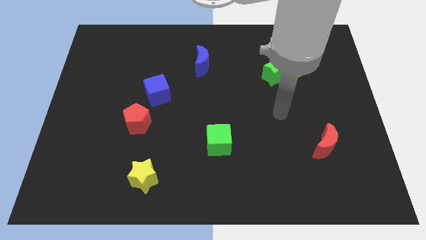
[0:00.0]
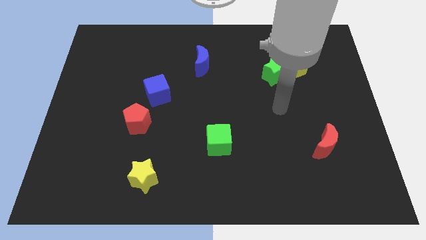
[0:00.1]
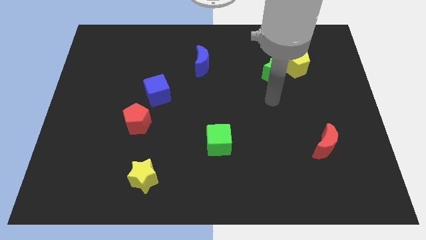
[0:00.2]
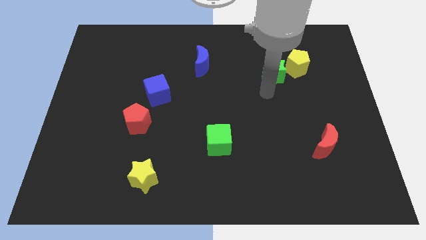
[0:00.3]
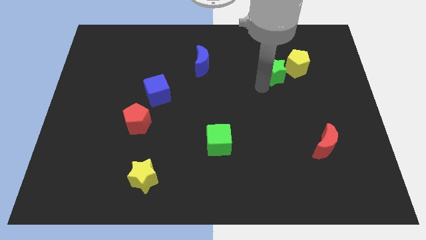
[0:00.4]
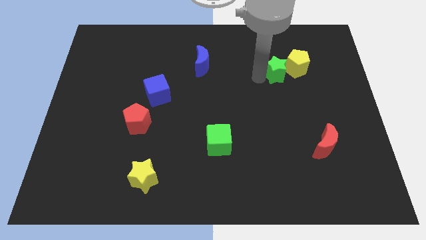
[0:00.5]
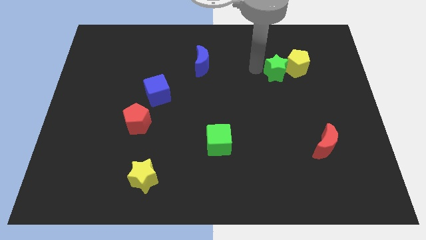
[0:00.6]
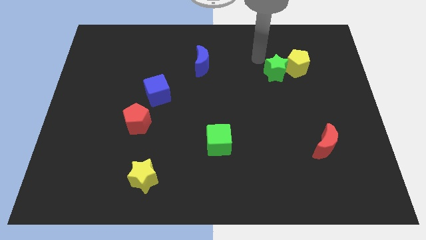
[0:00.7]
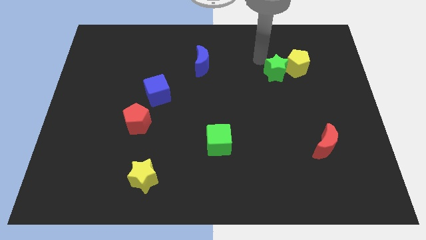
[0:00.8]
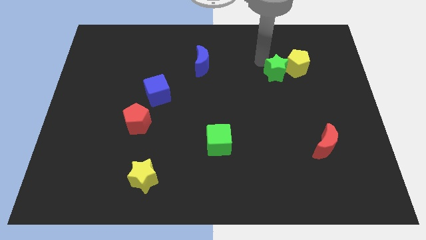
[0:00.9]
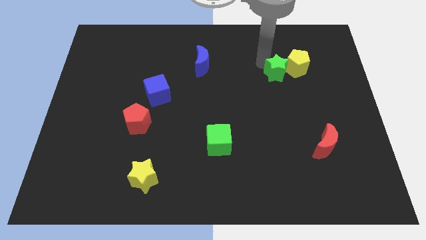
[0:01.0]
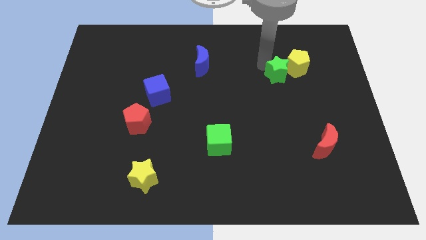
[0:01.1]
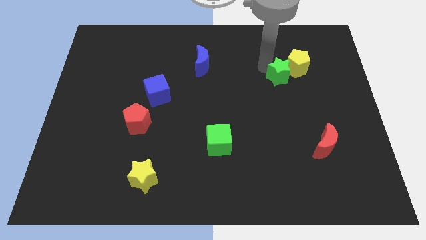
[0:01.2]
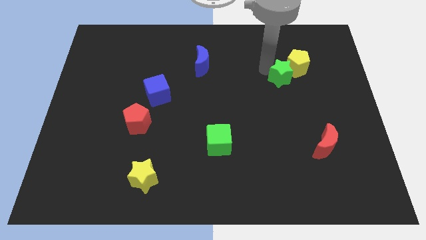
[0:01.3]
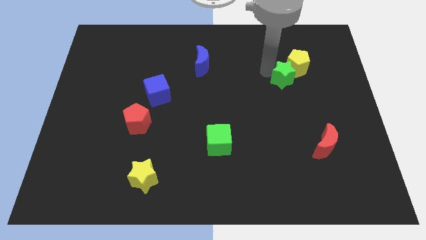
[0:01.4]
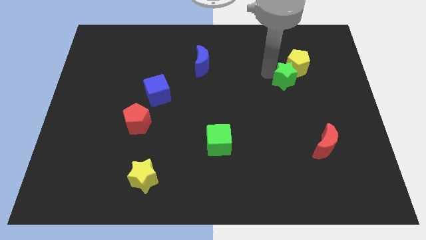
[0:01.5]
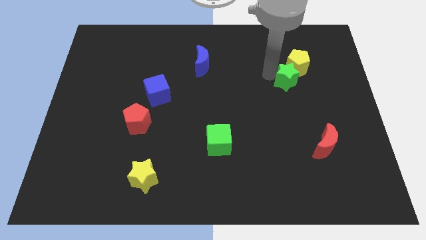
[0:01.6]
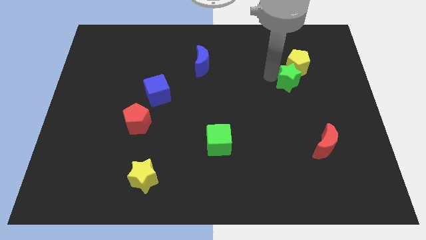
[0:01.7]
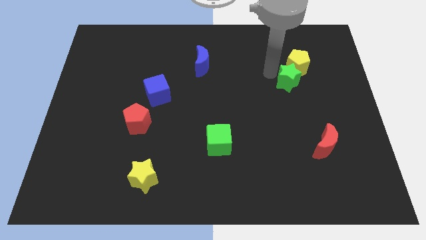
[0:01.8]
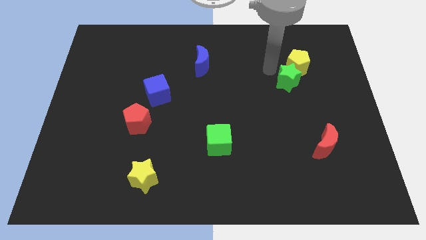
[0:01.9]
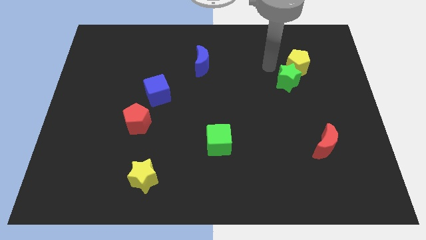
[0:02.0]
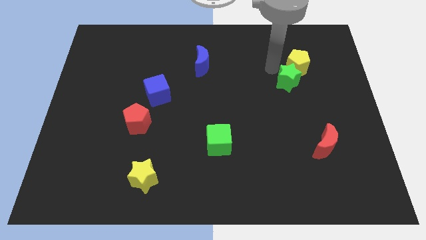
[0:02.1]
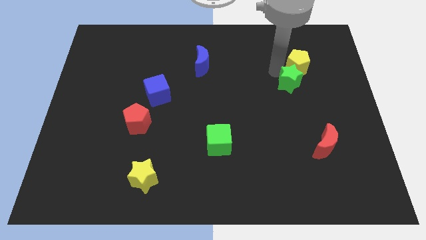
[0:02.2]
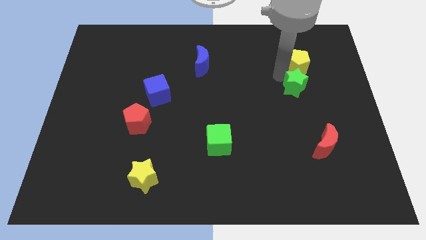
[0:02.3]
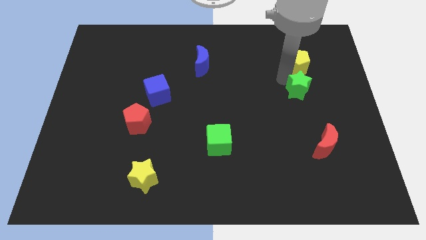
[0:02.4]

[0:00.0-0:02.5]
move the green star down and right diagonally a little bit

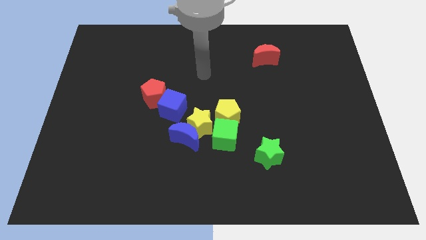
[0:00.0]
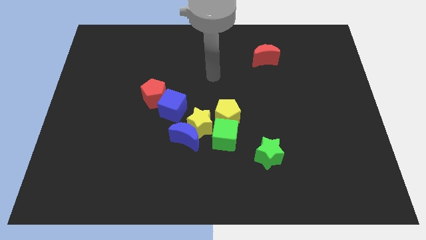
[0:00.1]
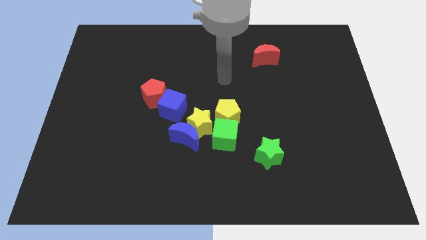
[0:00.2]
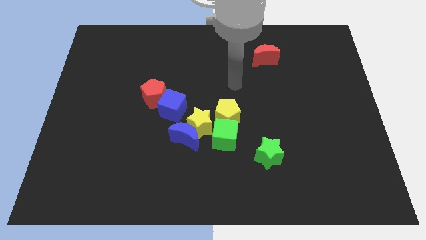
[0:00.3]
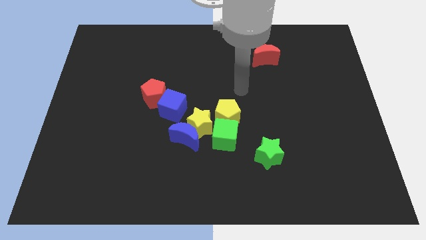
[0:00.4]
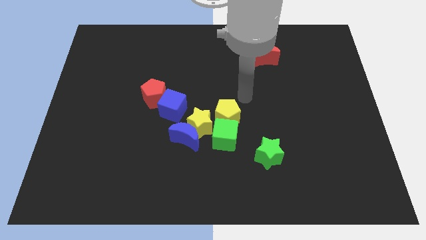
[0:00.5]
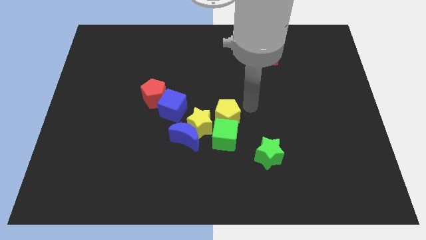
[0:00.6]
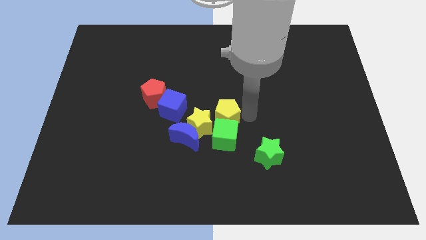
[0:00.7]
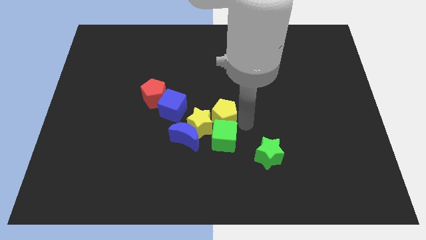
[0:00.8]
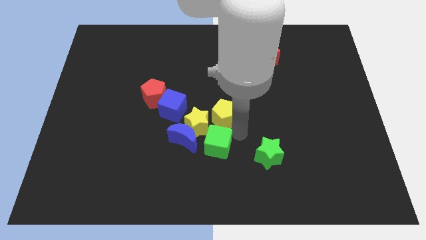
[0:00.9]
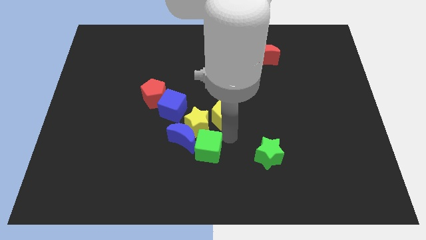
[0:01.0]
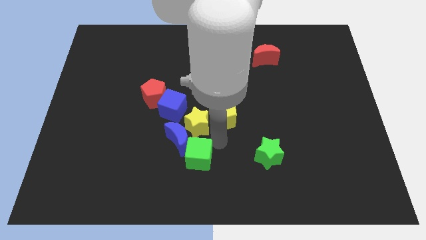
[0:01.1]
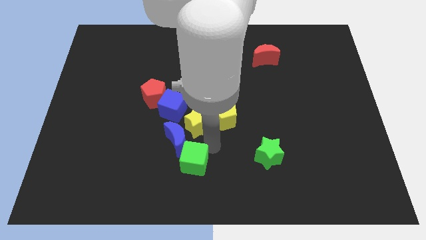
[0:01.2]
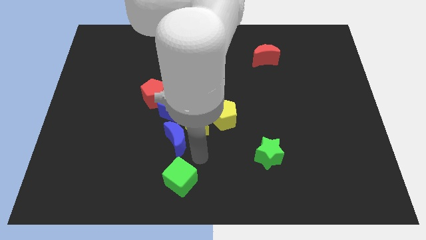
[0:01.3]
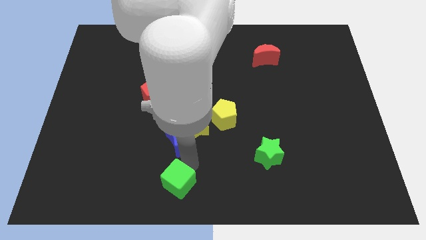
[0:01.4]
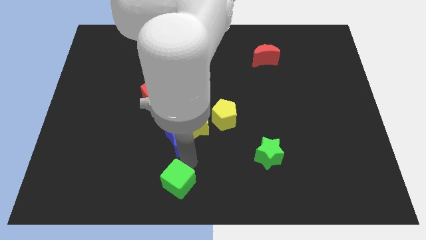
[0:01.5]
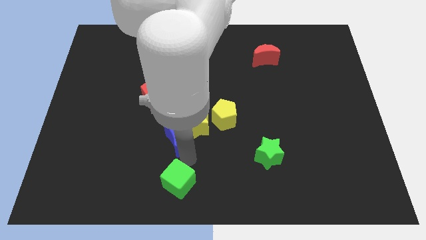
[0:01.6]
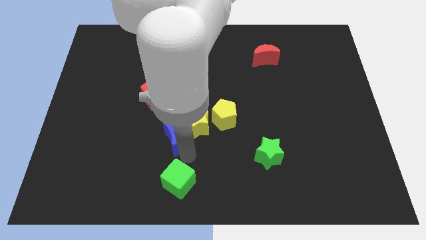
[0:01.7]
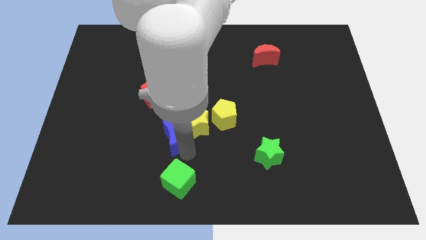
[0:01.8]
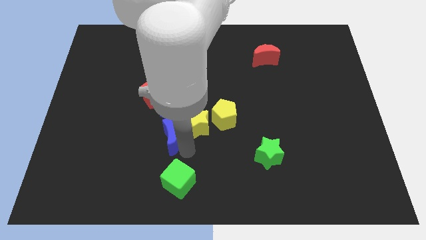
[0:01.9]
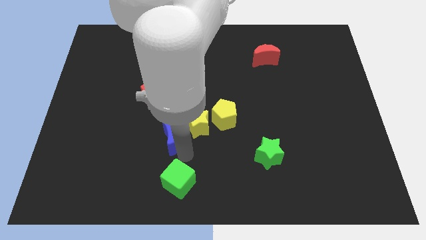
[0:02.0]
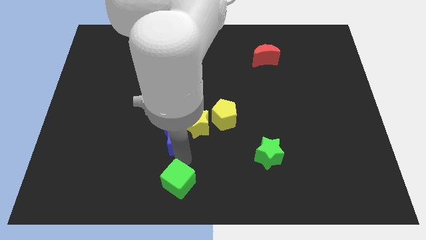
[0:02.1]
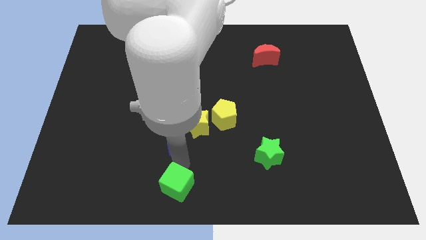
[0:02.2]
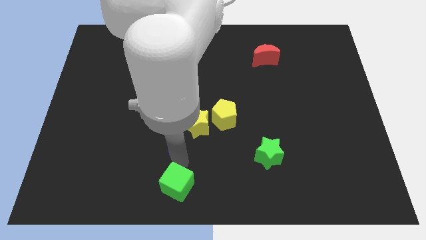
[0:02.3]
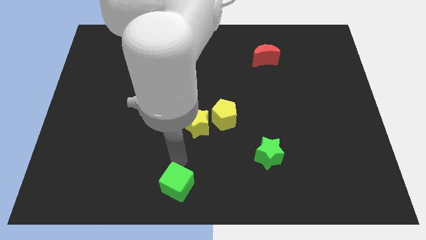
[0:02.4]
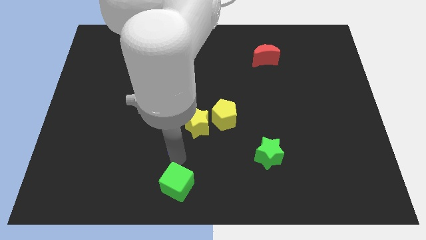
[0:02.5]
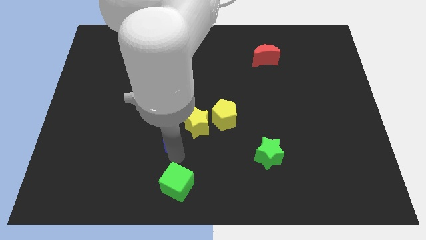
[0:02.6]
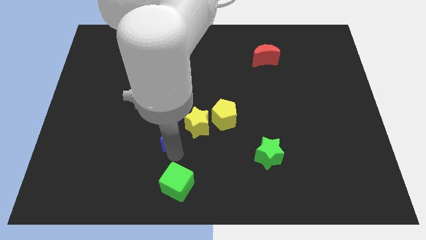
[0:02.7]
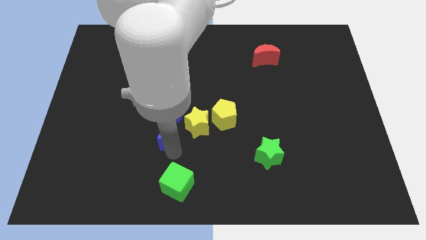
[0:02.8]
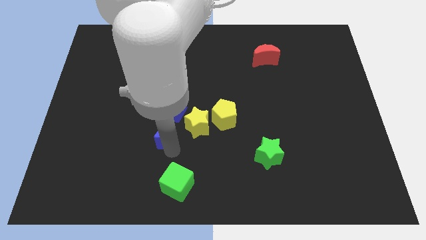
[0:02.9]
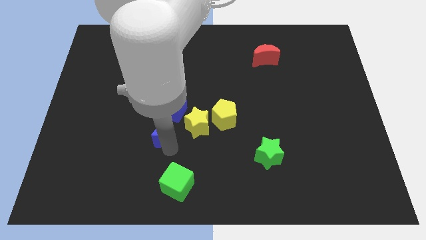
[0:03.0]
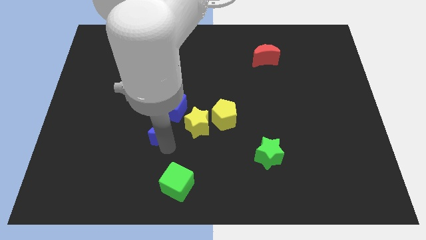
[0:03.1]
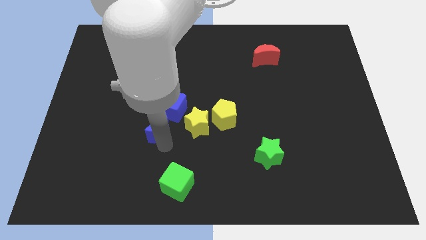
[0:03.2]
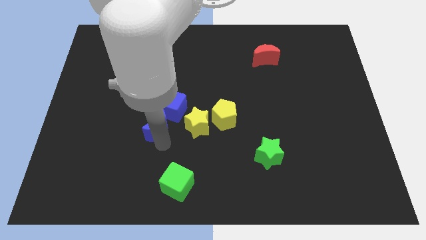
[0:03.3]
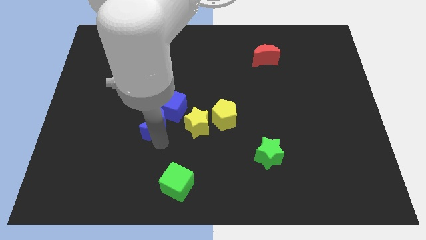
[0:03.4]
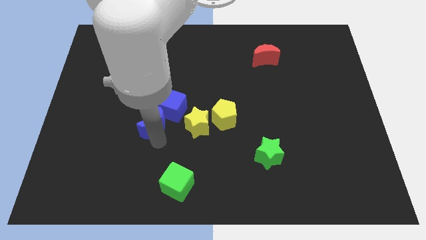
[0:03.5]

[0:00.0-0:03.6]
push the blue moon a little bit upwards and left diagonally

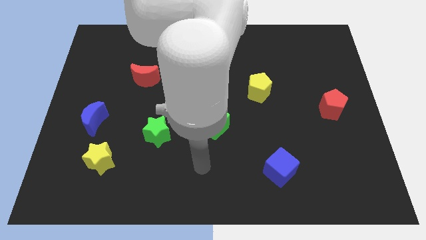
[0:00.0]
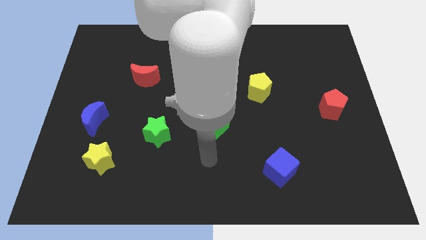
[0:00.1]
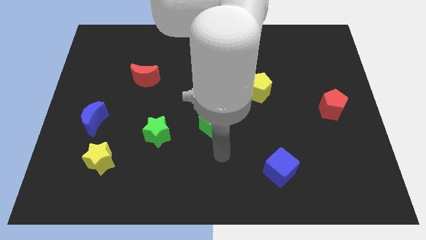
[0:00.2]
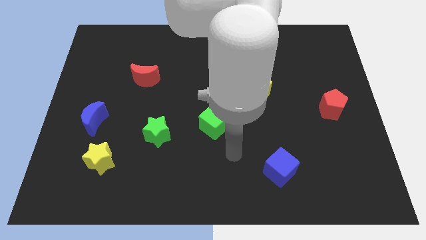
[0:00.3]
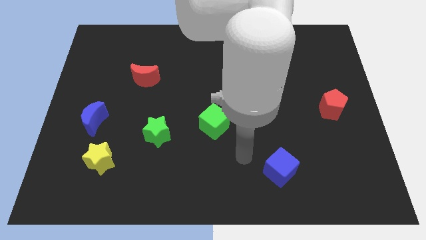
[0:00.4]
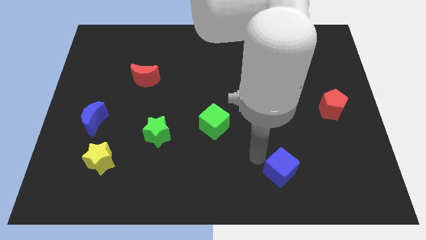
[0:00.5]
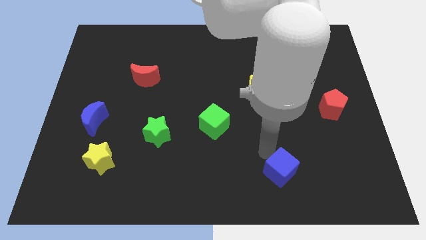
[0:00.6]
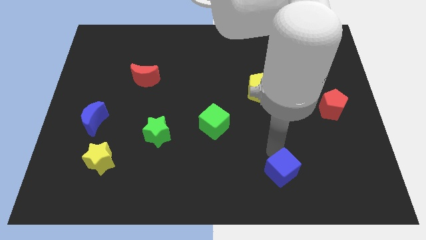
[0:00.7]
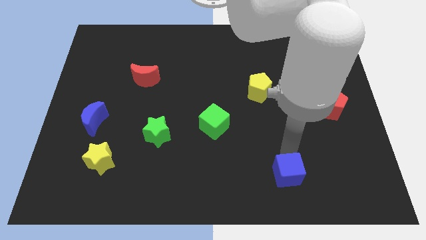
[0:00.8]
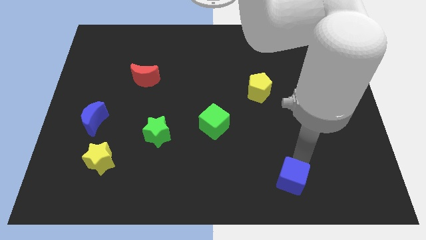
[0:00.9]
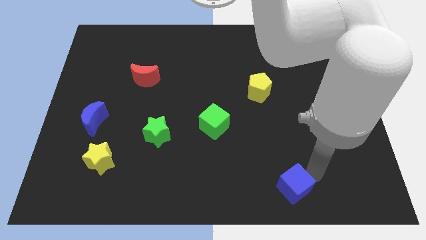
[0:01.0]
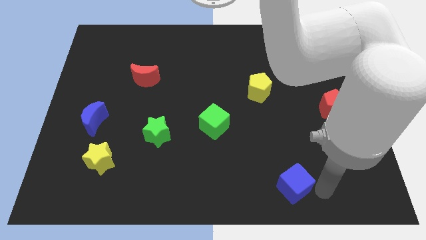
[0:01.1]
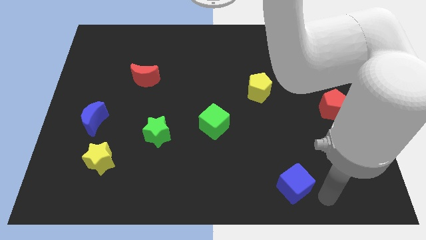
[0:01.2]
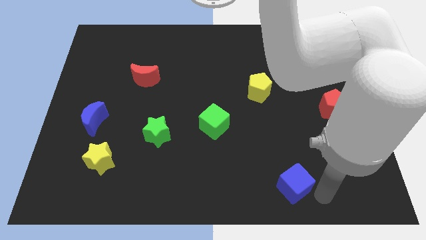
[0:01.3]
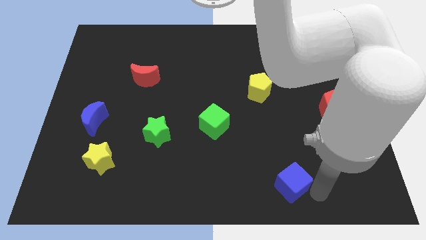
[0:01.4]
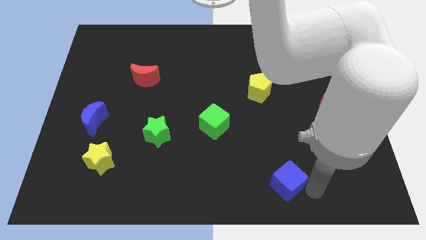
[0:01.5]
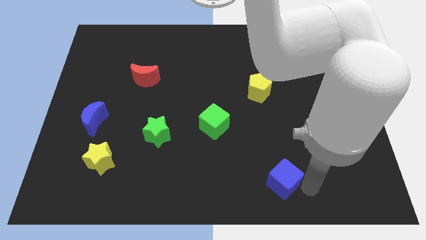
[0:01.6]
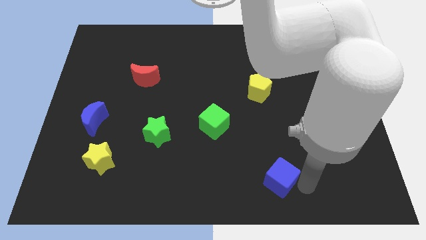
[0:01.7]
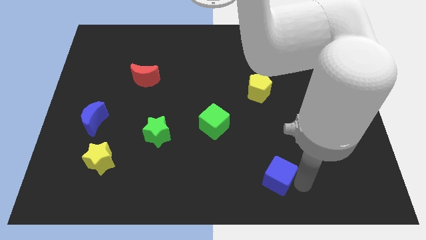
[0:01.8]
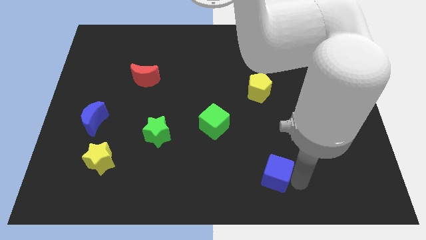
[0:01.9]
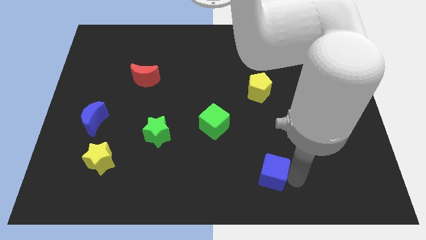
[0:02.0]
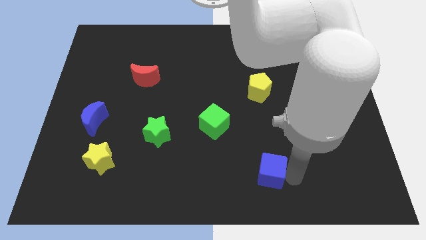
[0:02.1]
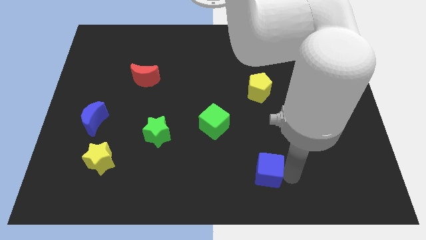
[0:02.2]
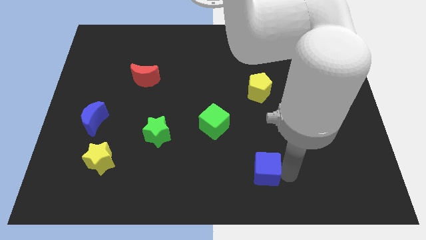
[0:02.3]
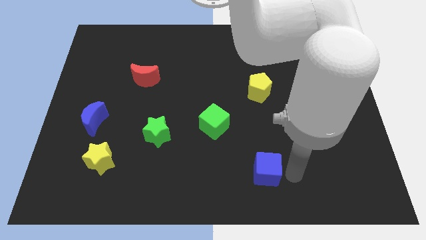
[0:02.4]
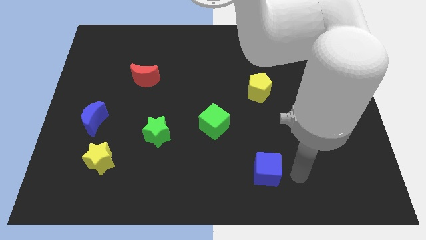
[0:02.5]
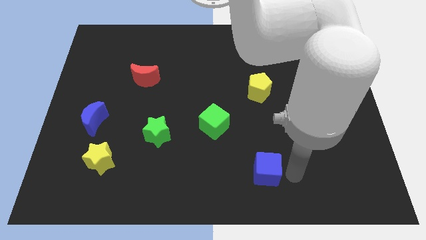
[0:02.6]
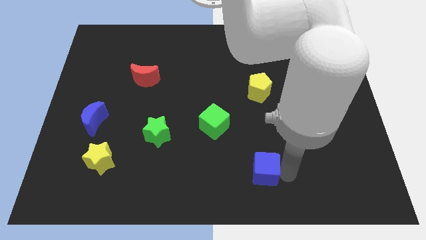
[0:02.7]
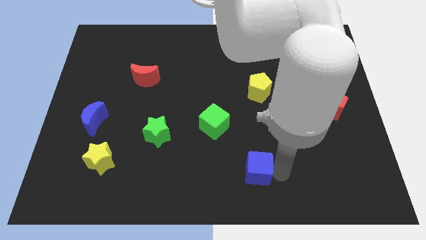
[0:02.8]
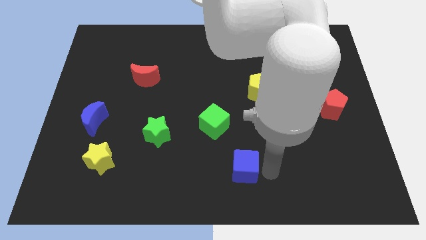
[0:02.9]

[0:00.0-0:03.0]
slightly move the blue cube to the left
